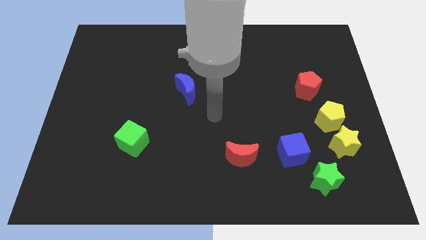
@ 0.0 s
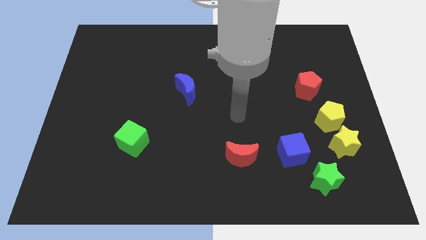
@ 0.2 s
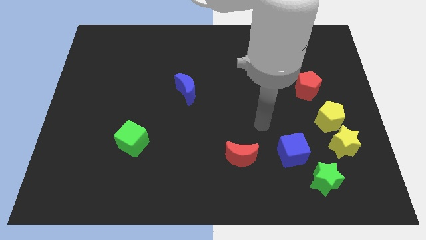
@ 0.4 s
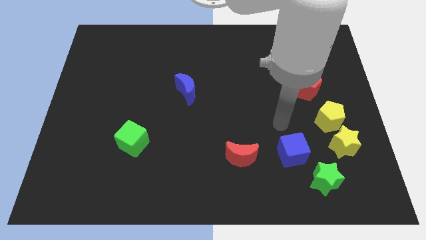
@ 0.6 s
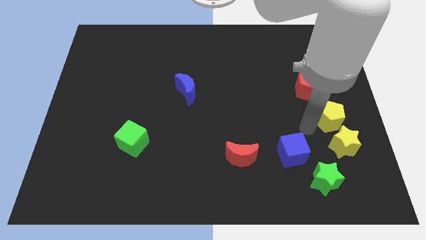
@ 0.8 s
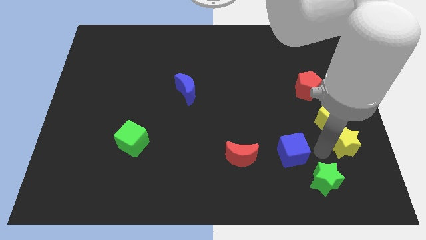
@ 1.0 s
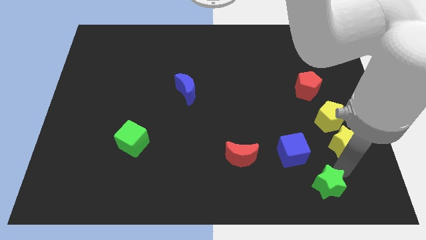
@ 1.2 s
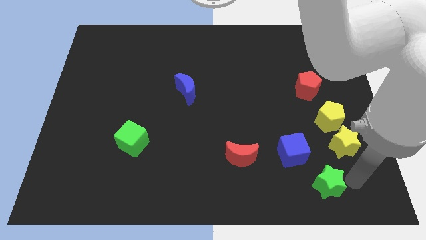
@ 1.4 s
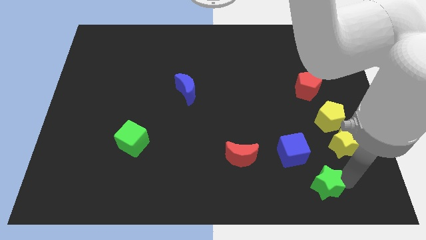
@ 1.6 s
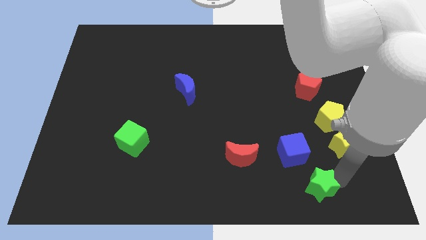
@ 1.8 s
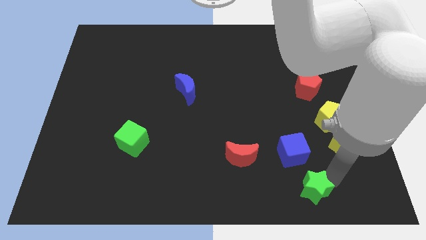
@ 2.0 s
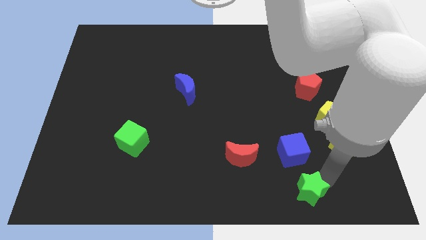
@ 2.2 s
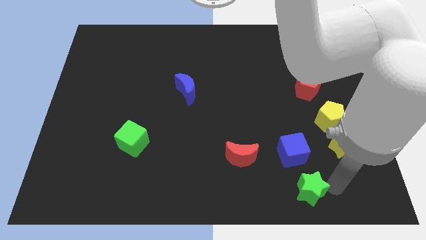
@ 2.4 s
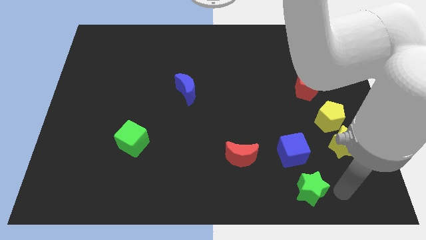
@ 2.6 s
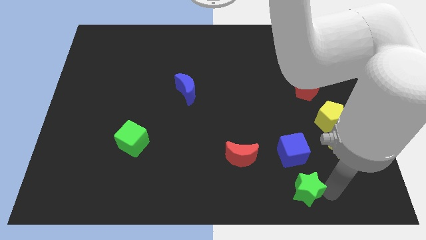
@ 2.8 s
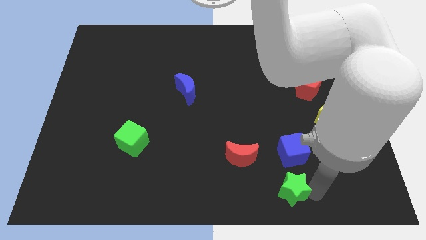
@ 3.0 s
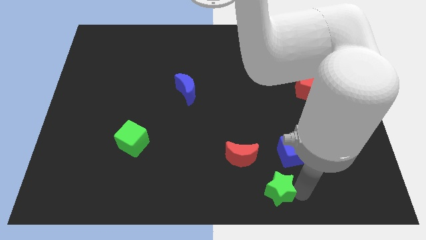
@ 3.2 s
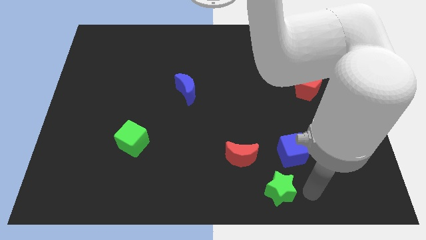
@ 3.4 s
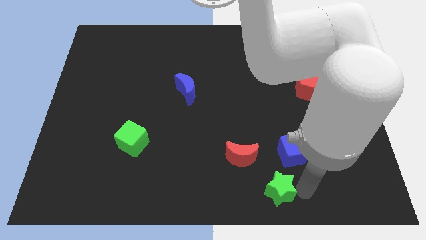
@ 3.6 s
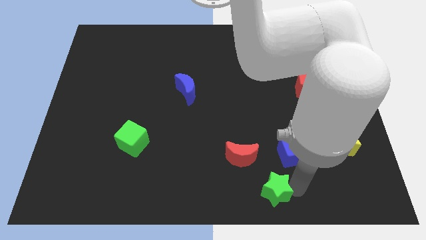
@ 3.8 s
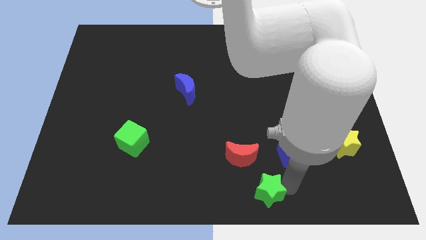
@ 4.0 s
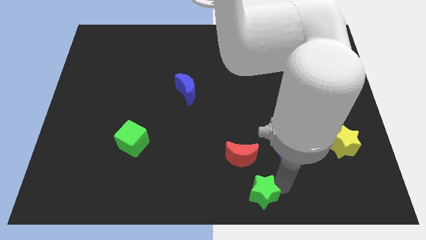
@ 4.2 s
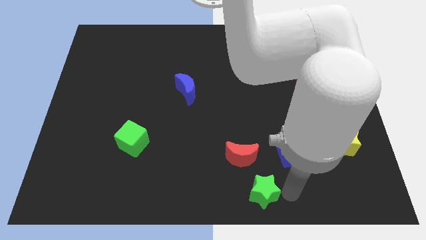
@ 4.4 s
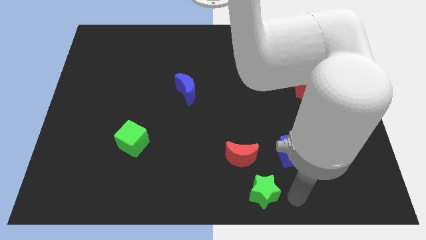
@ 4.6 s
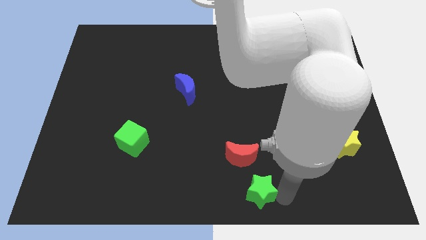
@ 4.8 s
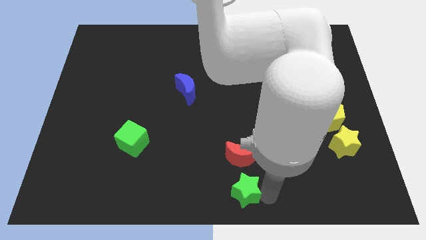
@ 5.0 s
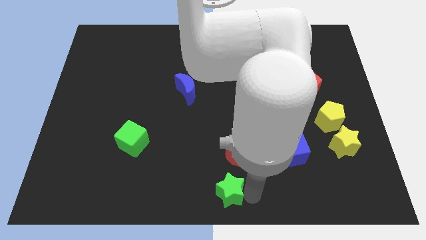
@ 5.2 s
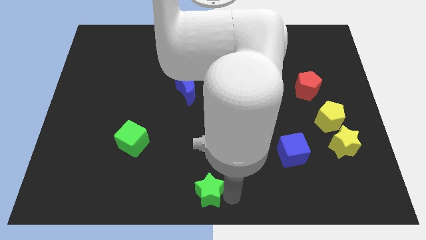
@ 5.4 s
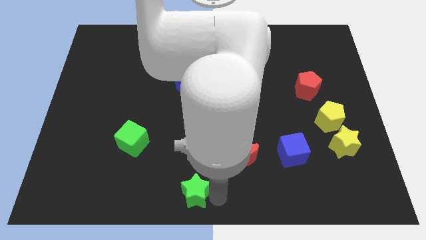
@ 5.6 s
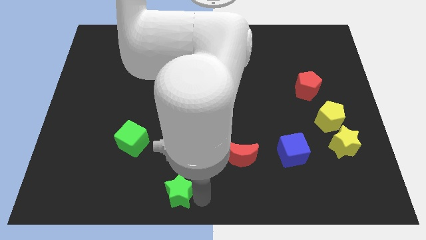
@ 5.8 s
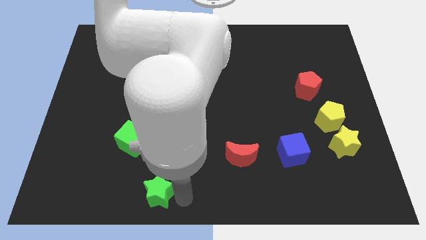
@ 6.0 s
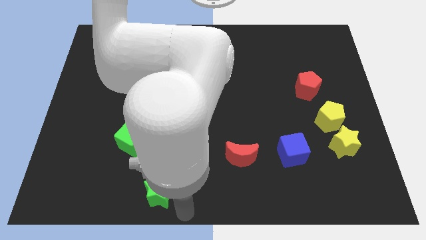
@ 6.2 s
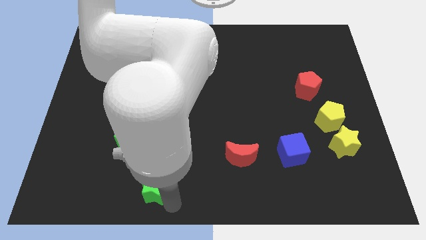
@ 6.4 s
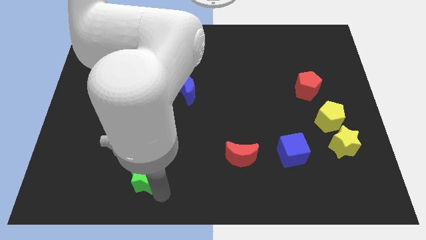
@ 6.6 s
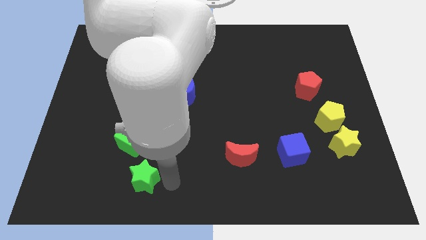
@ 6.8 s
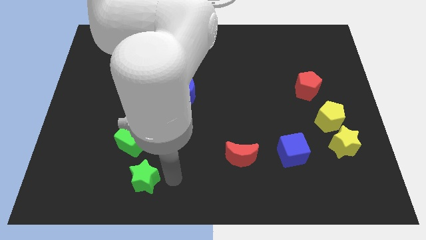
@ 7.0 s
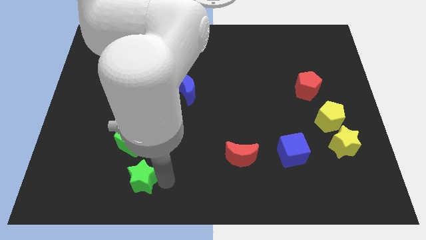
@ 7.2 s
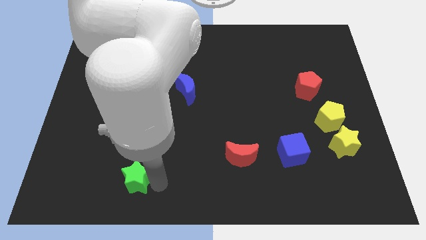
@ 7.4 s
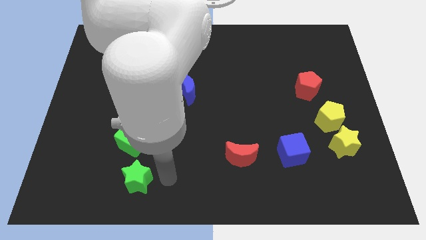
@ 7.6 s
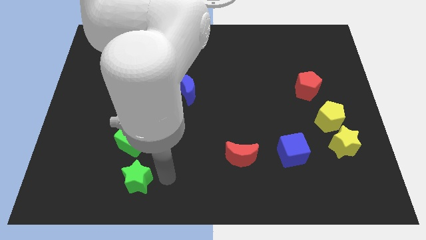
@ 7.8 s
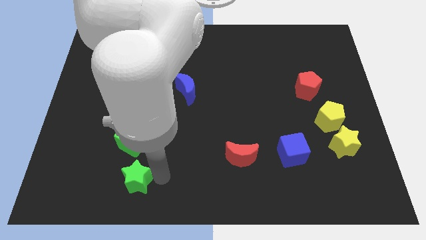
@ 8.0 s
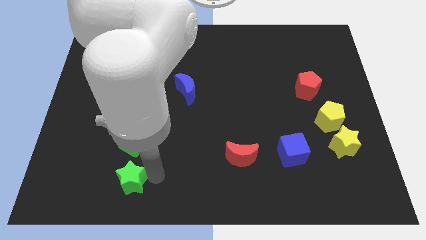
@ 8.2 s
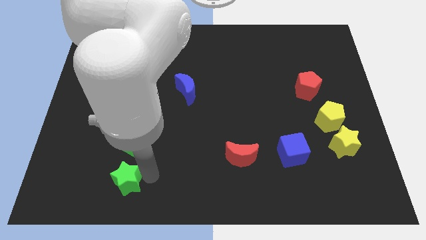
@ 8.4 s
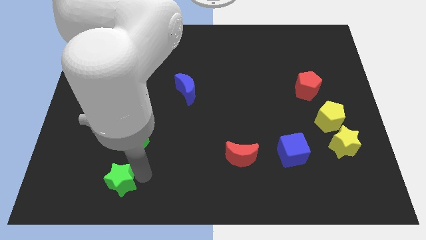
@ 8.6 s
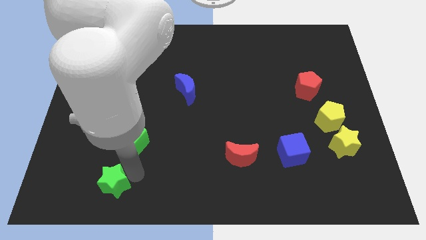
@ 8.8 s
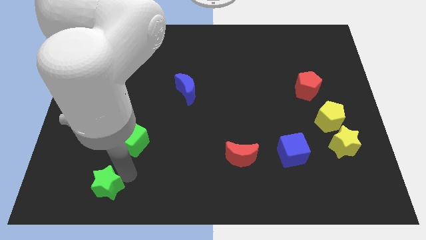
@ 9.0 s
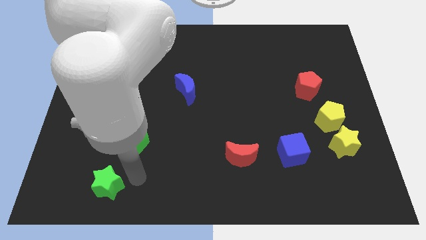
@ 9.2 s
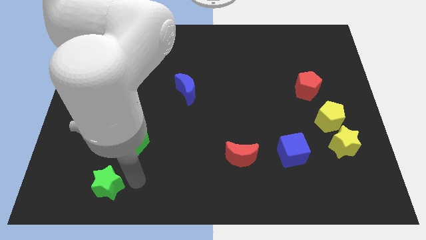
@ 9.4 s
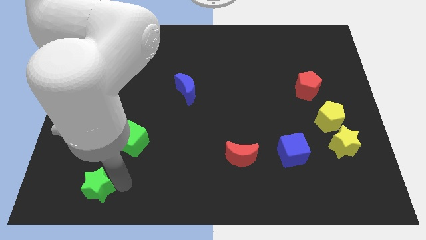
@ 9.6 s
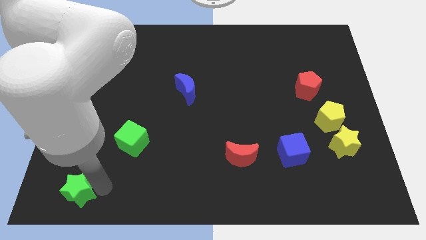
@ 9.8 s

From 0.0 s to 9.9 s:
push the green star to the lower left corner

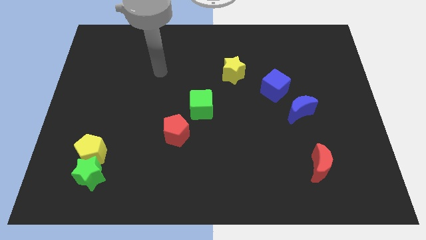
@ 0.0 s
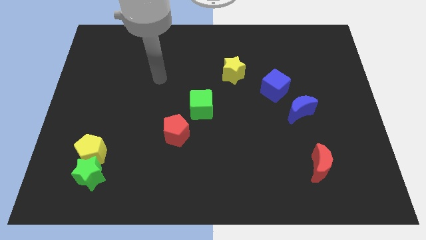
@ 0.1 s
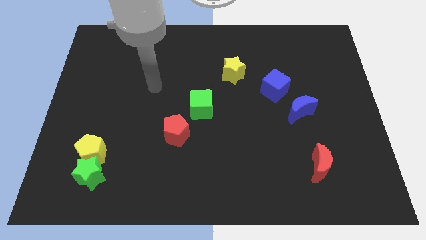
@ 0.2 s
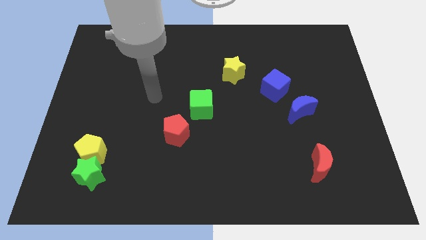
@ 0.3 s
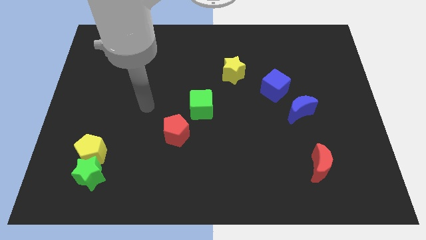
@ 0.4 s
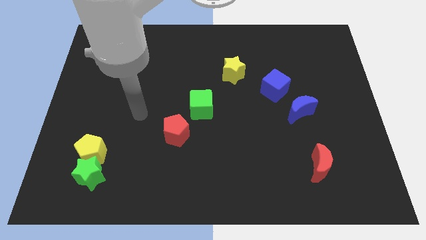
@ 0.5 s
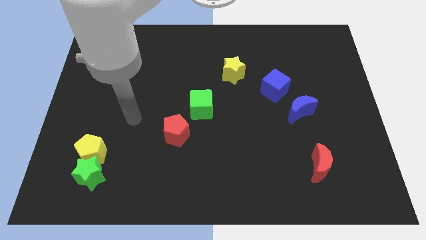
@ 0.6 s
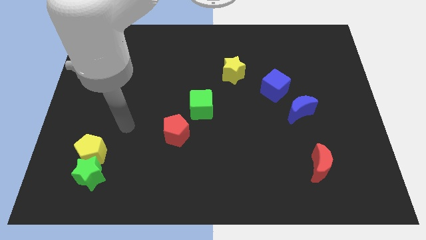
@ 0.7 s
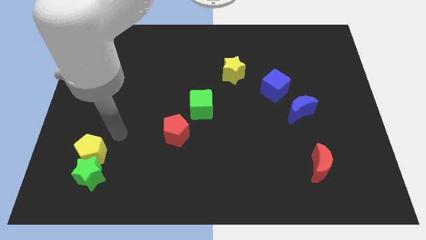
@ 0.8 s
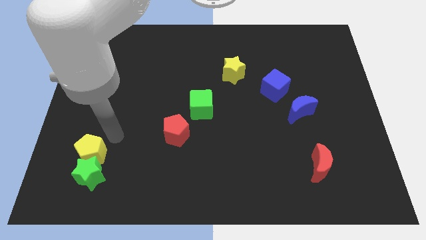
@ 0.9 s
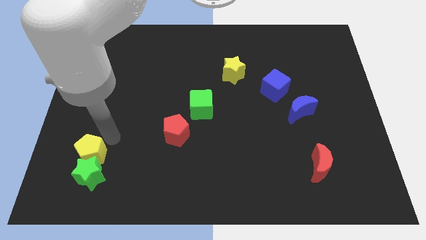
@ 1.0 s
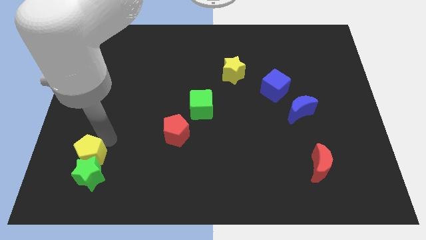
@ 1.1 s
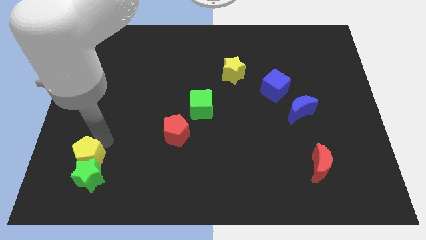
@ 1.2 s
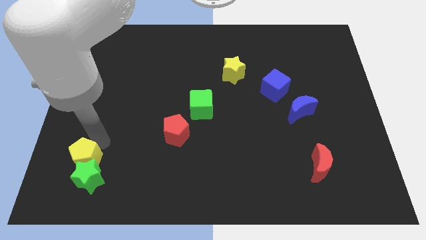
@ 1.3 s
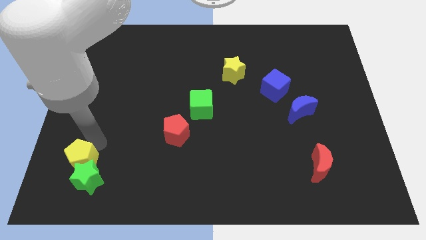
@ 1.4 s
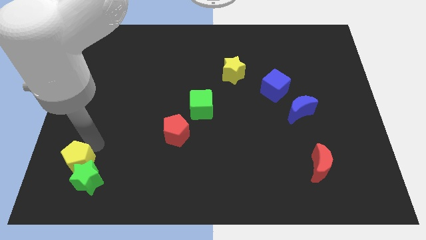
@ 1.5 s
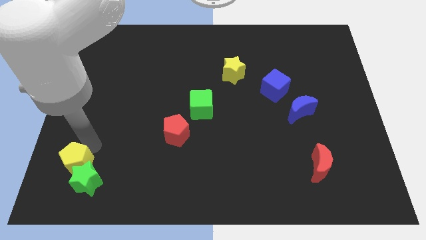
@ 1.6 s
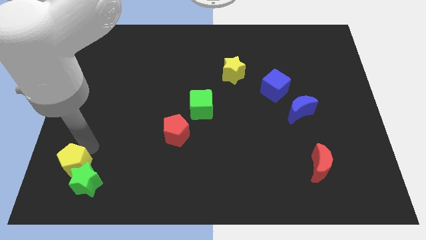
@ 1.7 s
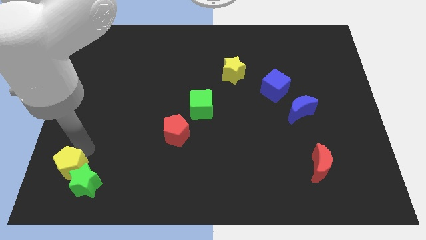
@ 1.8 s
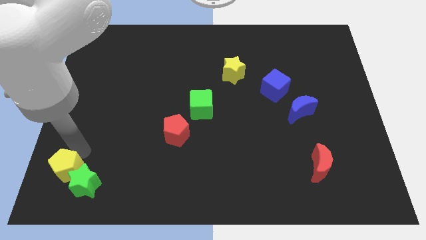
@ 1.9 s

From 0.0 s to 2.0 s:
slide the yellow pentagon to the bottom left corner

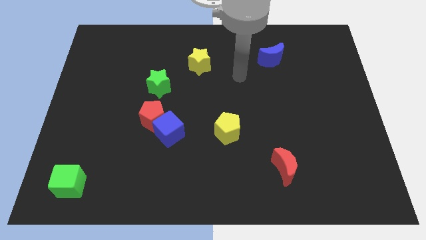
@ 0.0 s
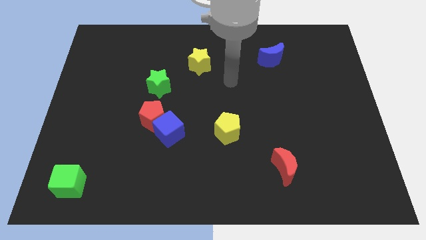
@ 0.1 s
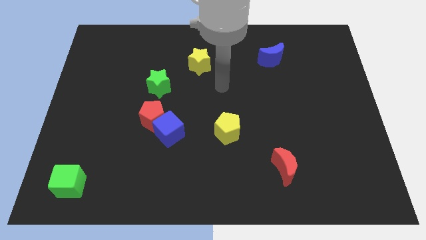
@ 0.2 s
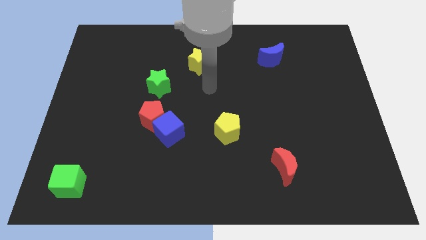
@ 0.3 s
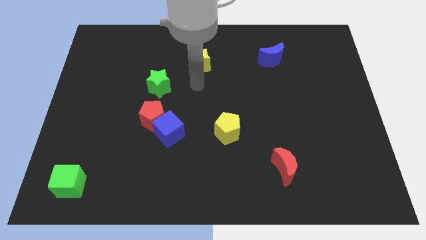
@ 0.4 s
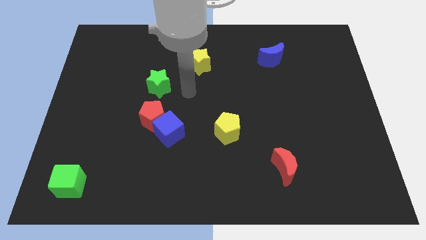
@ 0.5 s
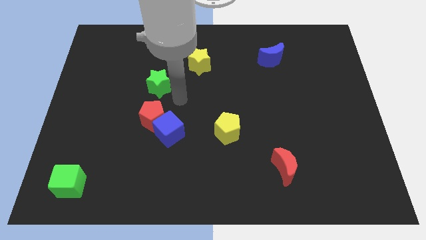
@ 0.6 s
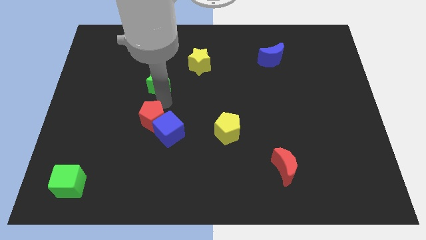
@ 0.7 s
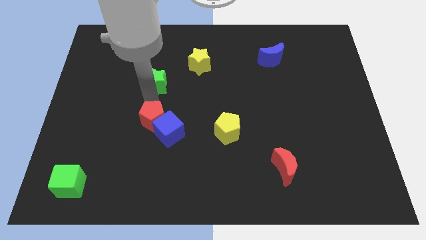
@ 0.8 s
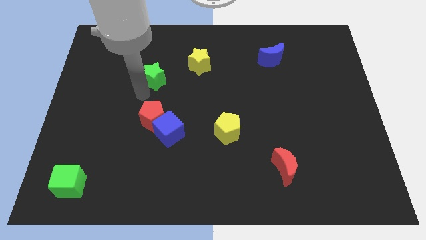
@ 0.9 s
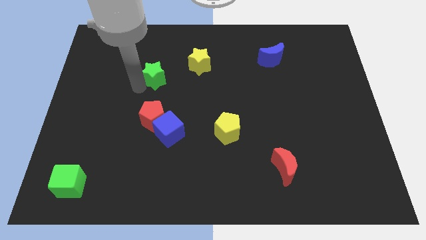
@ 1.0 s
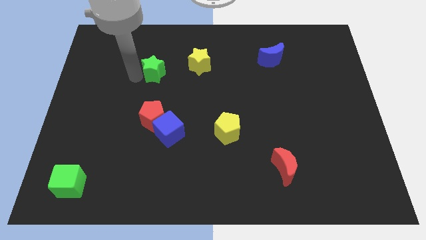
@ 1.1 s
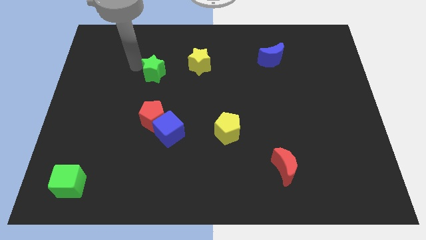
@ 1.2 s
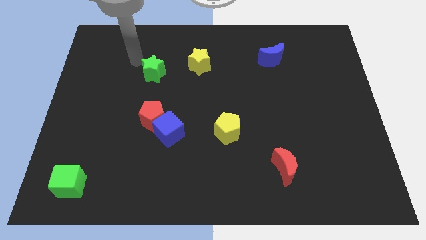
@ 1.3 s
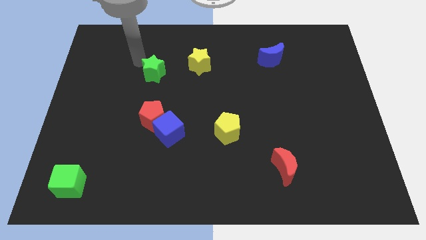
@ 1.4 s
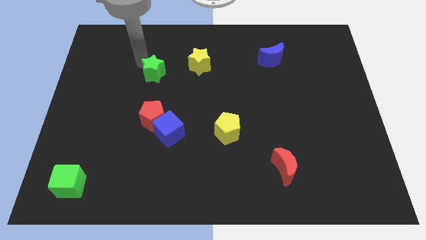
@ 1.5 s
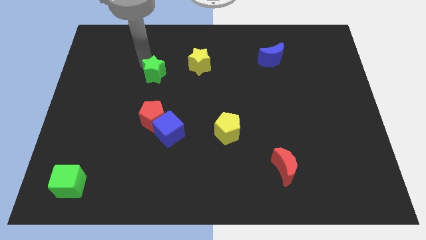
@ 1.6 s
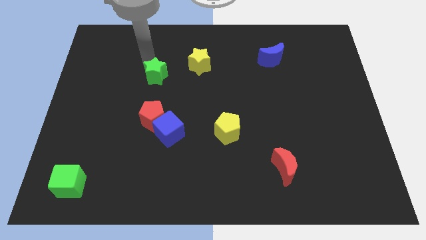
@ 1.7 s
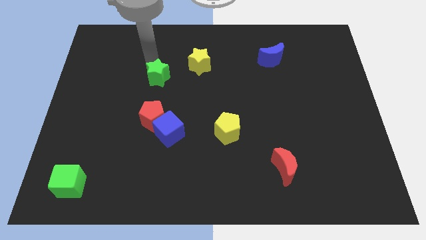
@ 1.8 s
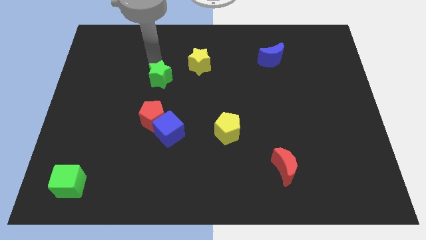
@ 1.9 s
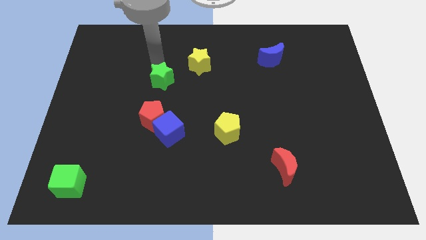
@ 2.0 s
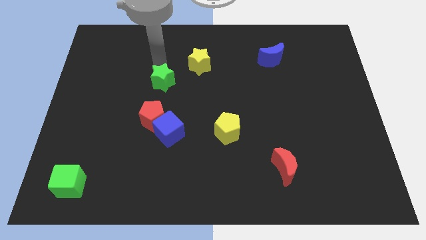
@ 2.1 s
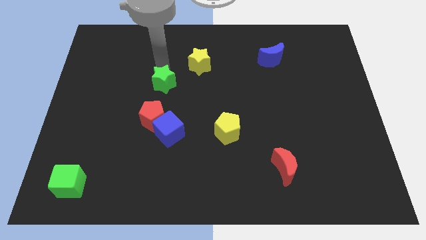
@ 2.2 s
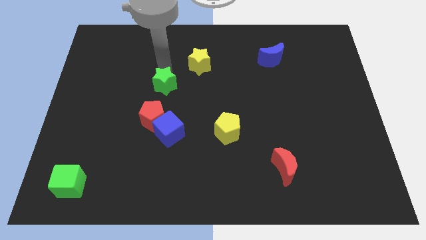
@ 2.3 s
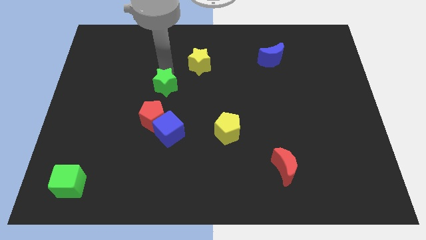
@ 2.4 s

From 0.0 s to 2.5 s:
put the green star to the middle
